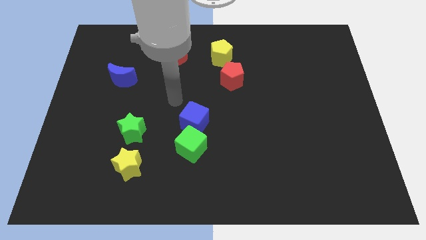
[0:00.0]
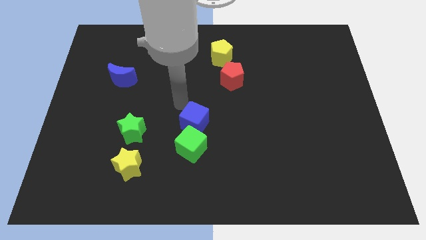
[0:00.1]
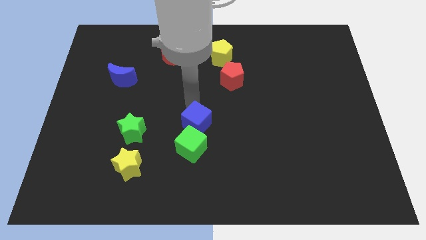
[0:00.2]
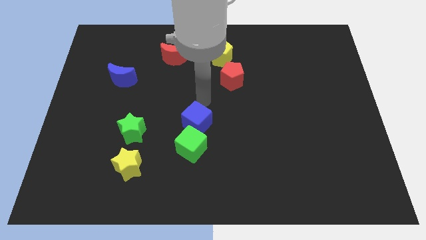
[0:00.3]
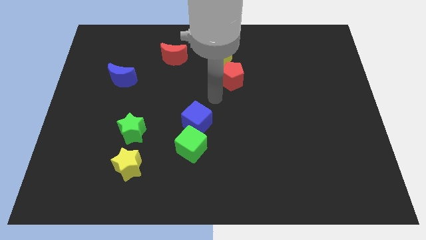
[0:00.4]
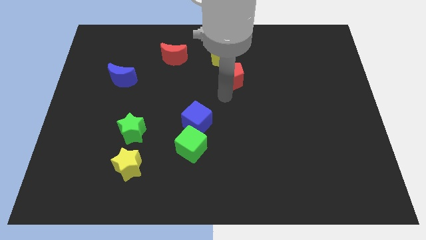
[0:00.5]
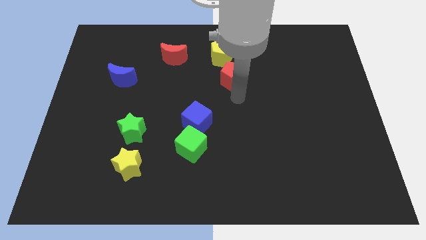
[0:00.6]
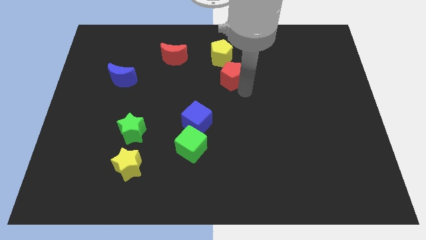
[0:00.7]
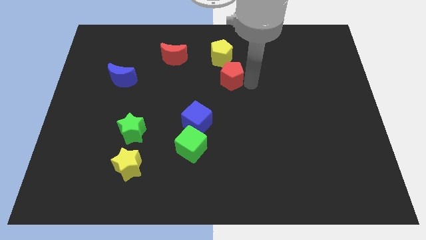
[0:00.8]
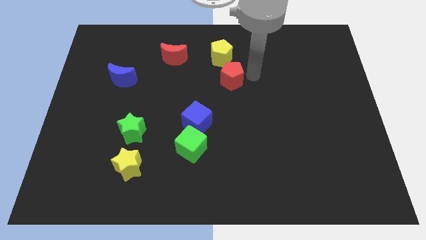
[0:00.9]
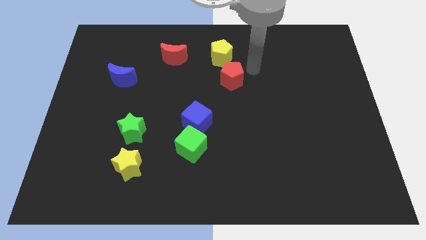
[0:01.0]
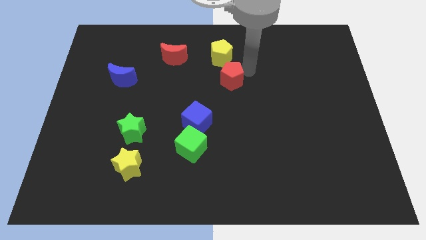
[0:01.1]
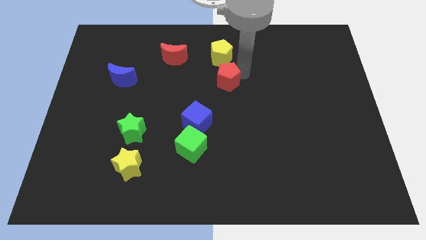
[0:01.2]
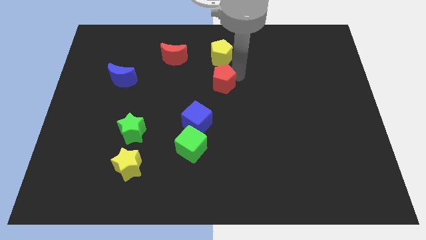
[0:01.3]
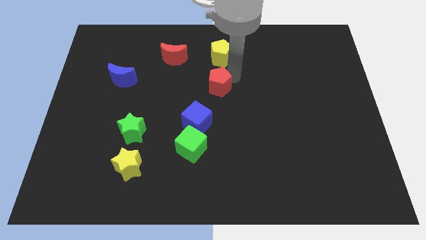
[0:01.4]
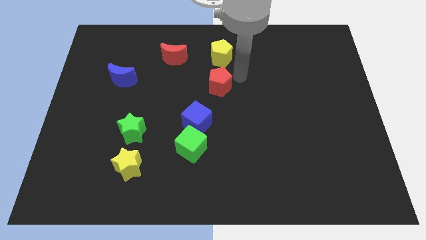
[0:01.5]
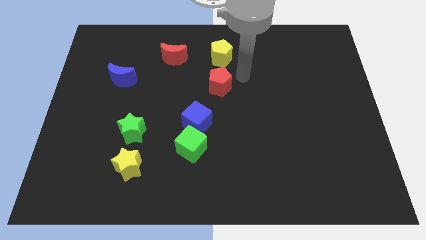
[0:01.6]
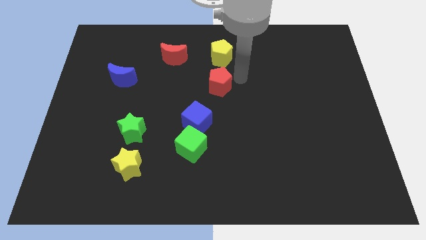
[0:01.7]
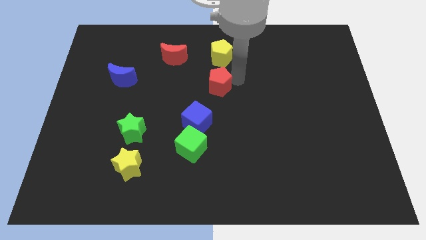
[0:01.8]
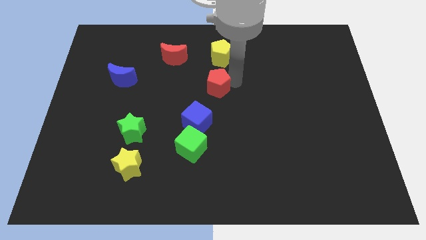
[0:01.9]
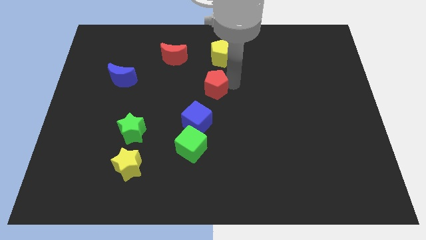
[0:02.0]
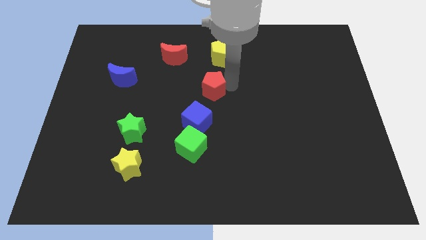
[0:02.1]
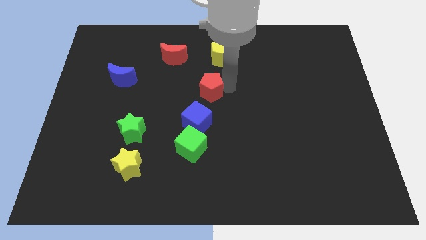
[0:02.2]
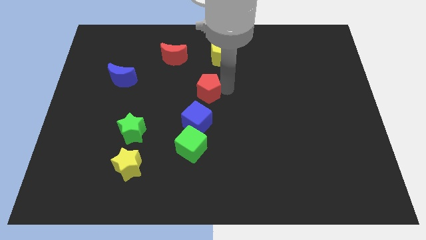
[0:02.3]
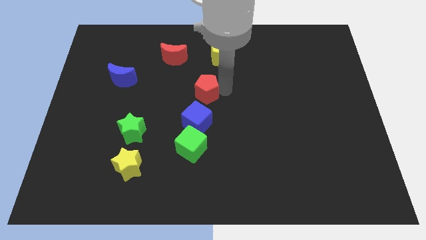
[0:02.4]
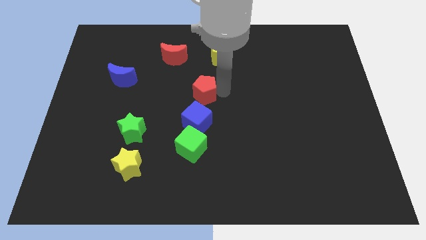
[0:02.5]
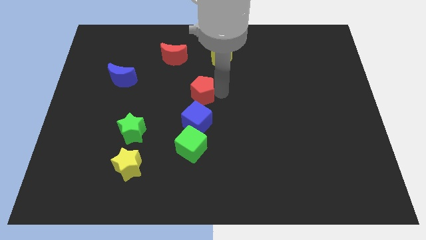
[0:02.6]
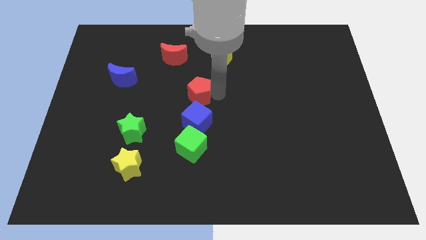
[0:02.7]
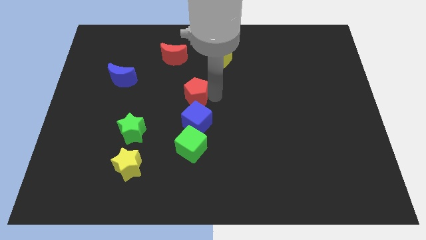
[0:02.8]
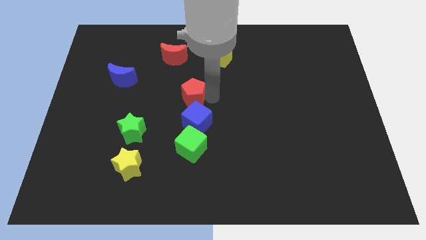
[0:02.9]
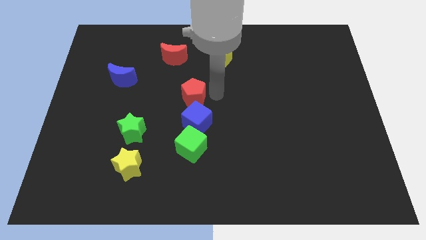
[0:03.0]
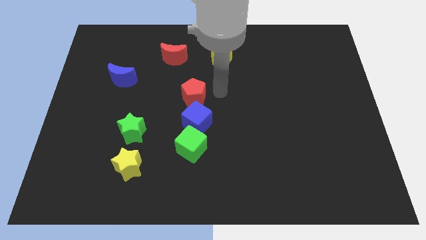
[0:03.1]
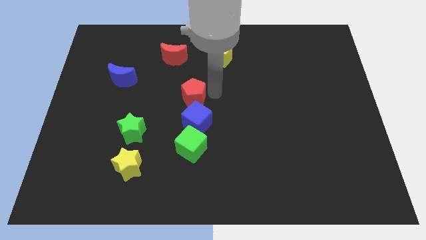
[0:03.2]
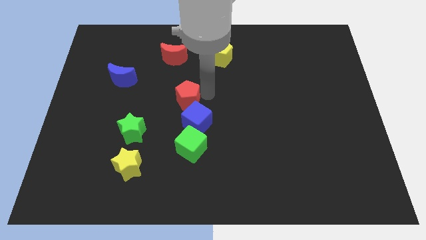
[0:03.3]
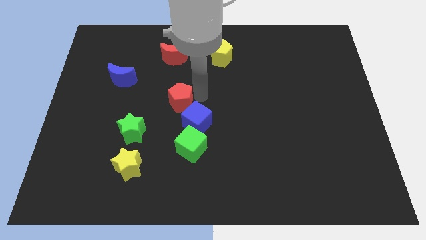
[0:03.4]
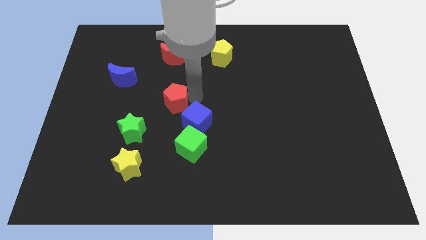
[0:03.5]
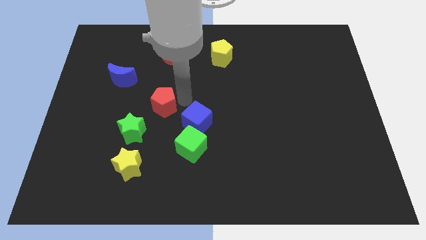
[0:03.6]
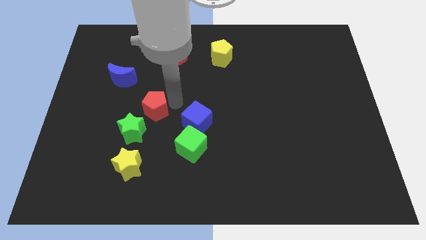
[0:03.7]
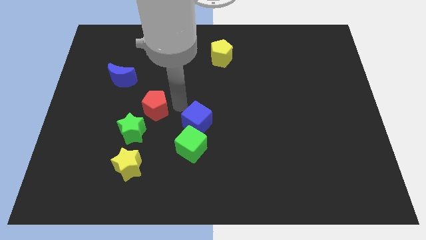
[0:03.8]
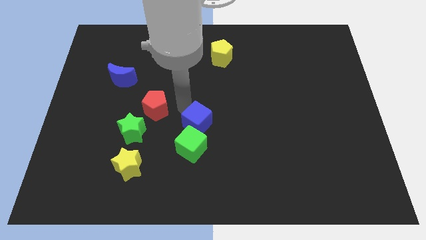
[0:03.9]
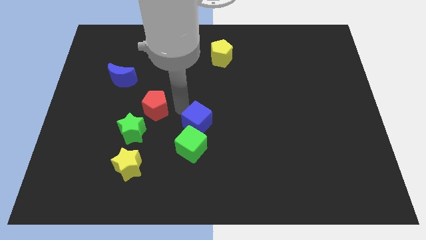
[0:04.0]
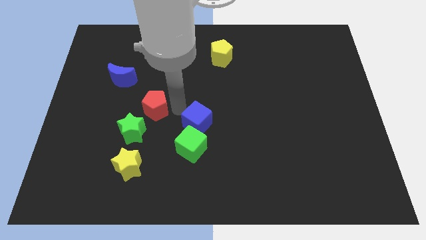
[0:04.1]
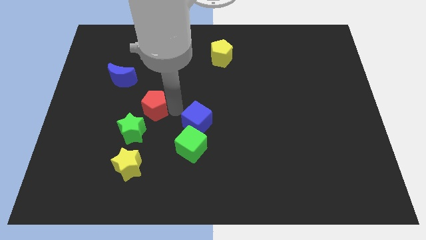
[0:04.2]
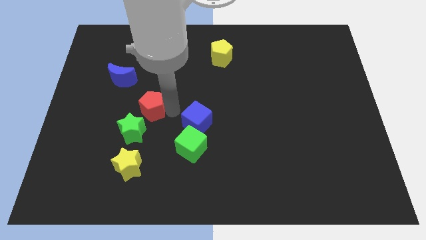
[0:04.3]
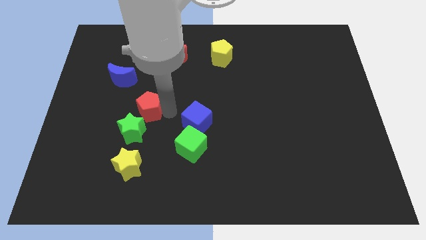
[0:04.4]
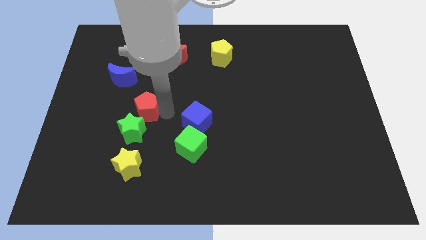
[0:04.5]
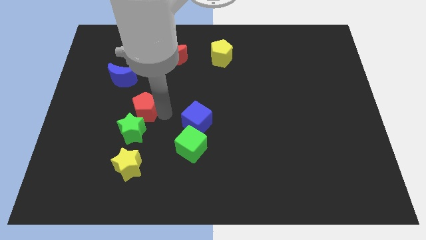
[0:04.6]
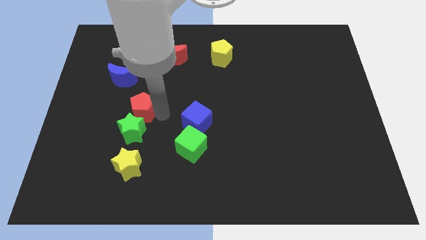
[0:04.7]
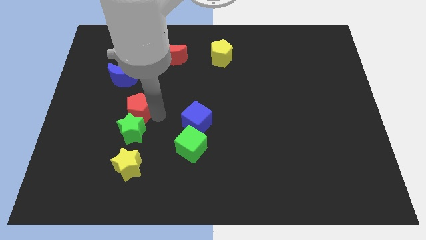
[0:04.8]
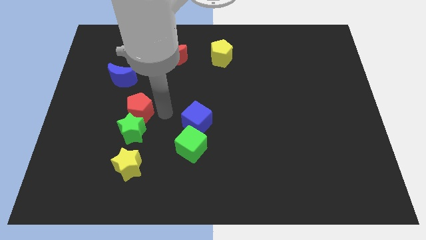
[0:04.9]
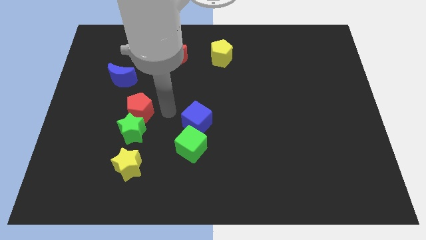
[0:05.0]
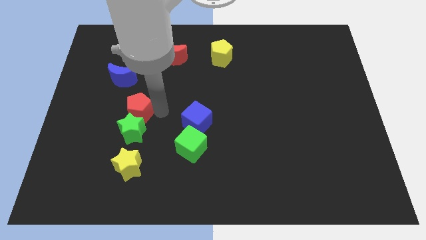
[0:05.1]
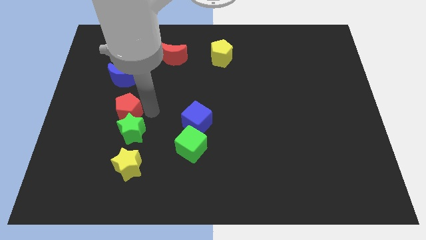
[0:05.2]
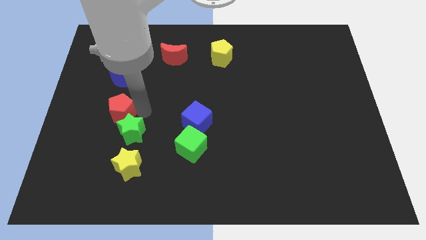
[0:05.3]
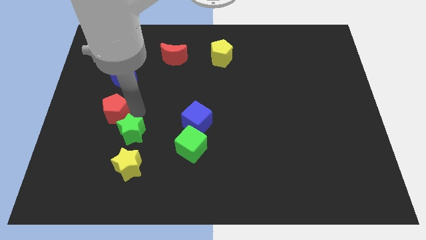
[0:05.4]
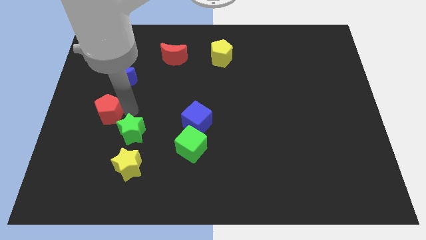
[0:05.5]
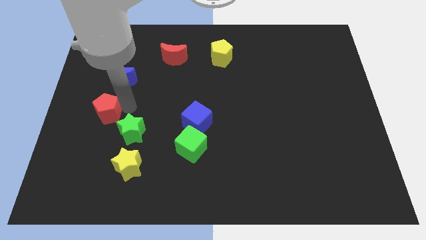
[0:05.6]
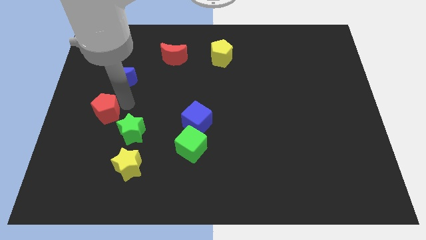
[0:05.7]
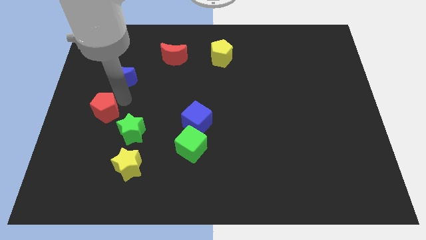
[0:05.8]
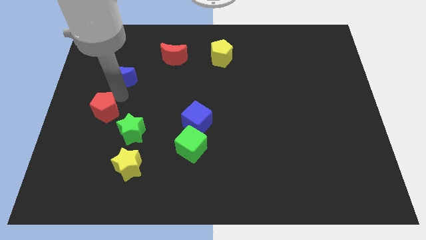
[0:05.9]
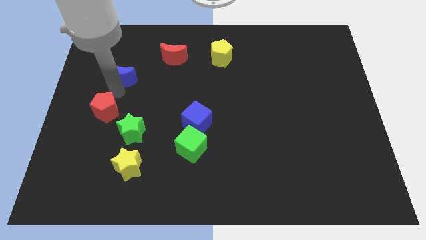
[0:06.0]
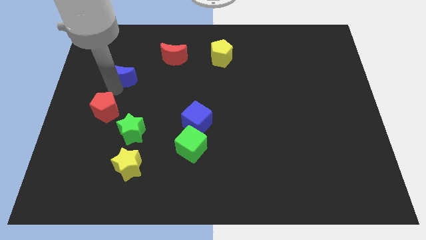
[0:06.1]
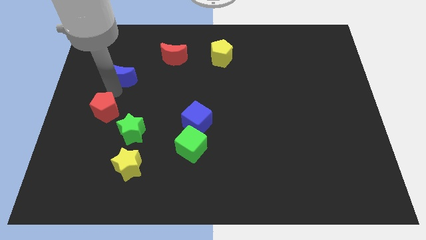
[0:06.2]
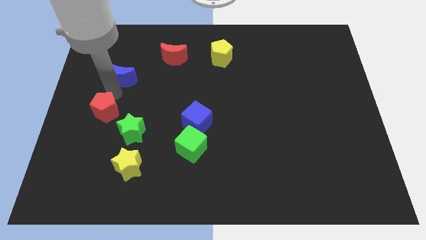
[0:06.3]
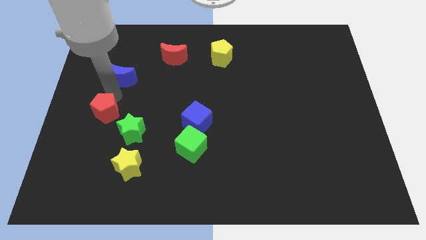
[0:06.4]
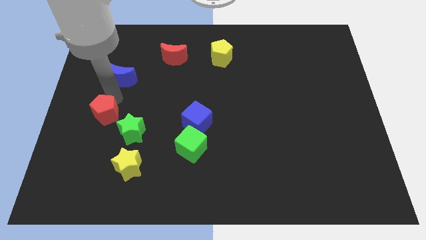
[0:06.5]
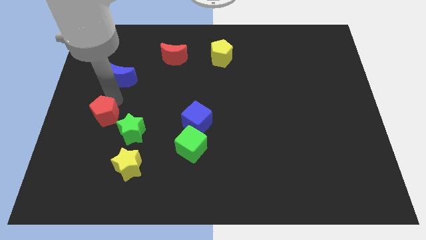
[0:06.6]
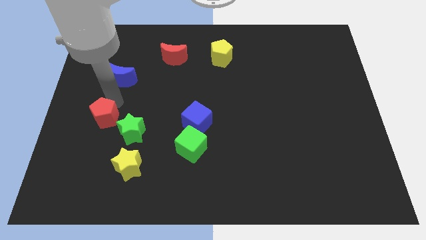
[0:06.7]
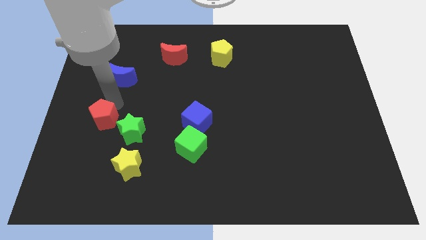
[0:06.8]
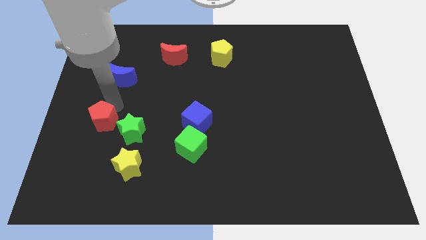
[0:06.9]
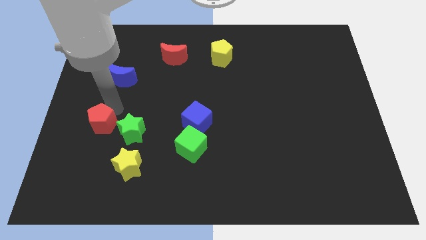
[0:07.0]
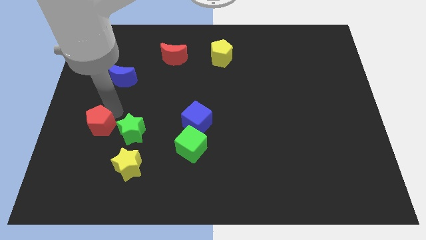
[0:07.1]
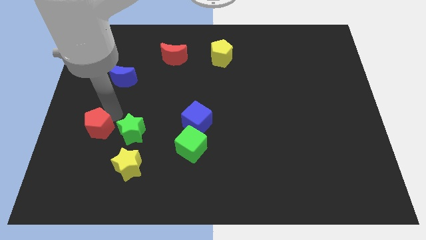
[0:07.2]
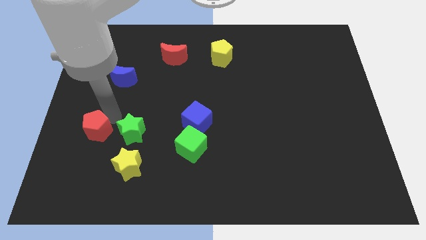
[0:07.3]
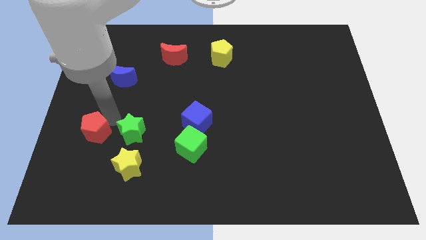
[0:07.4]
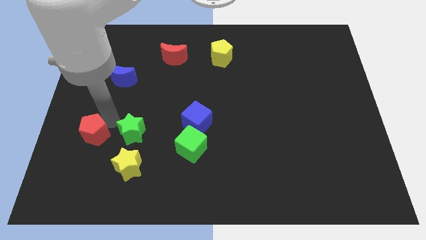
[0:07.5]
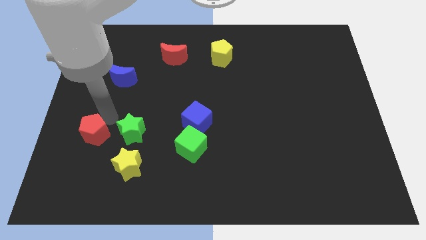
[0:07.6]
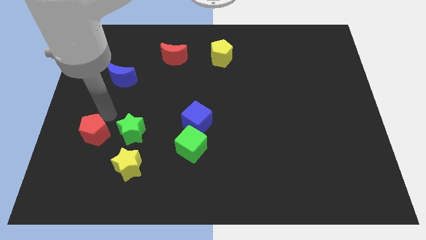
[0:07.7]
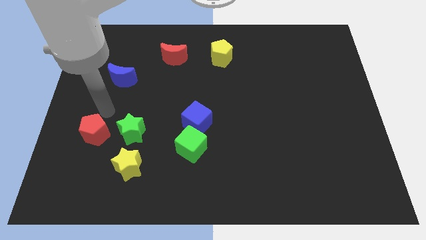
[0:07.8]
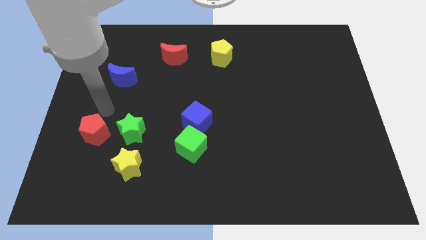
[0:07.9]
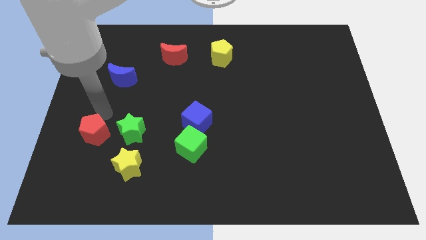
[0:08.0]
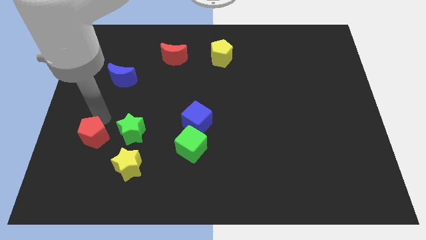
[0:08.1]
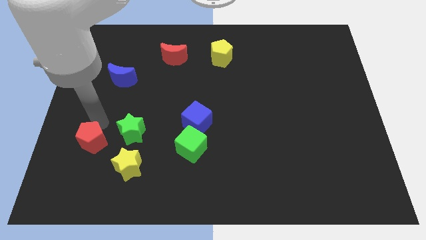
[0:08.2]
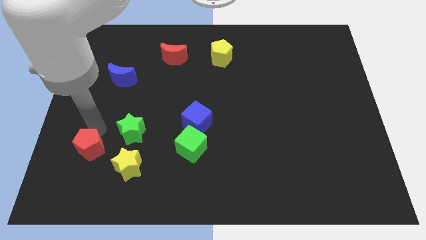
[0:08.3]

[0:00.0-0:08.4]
put the red pentagon left of the yellow star
